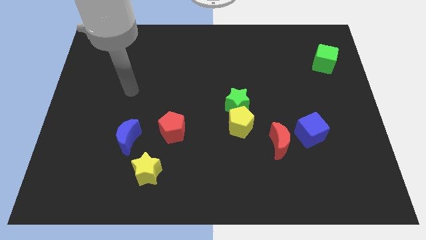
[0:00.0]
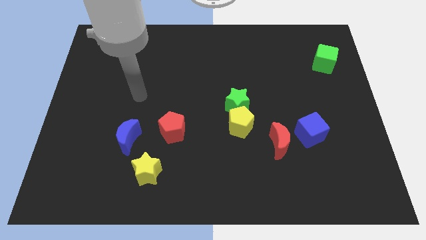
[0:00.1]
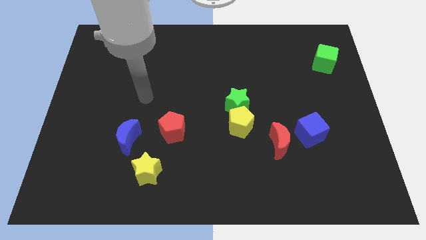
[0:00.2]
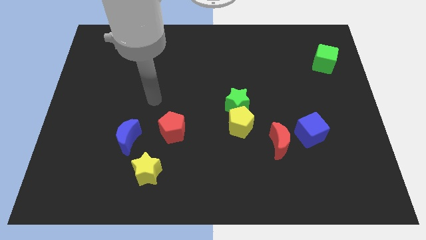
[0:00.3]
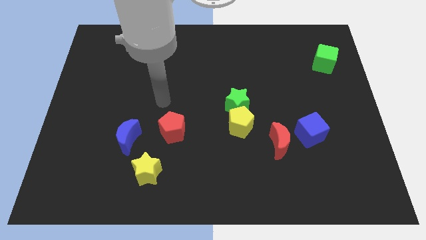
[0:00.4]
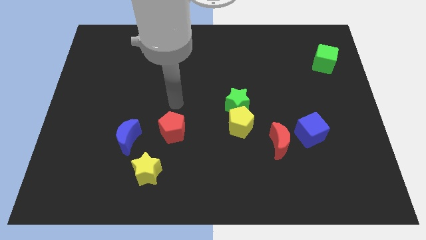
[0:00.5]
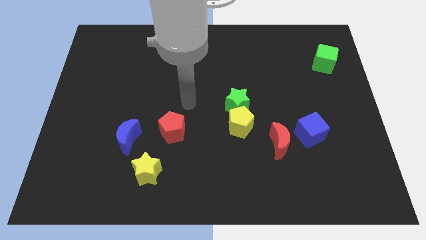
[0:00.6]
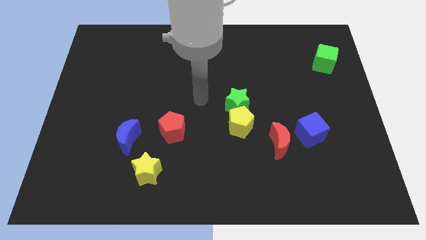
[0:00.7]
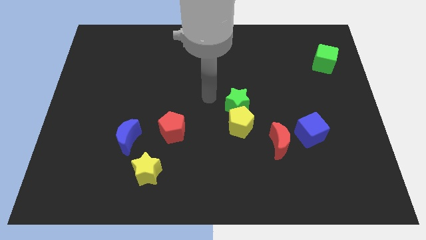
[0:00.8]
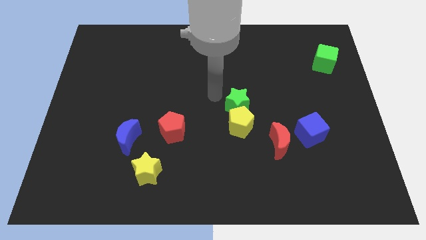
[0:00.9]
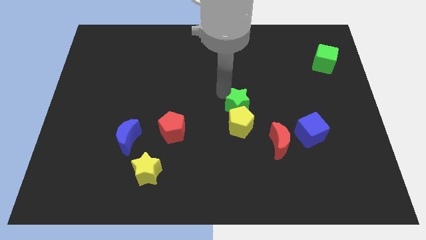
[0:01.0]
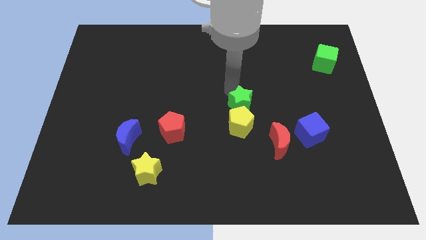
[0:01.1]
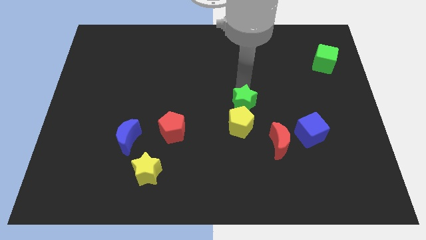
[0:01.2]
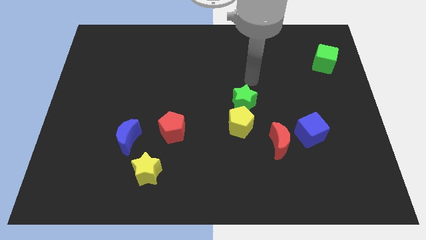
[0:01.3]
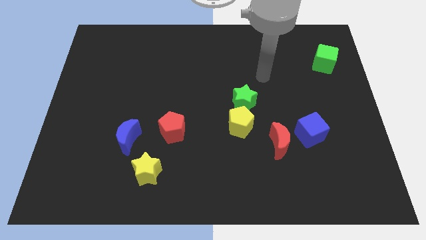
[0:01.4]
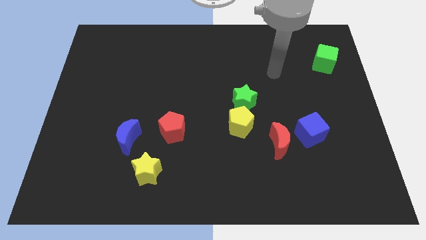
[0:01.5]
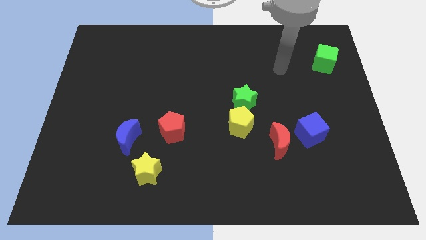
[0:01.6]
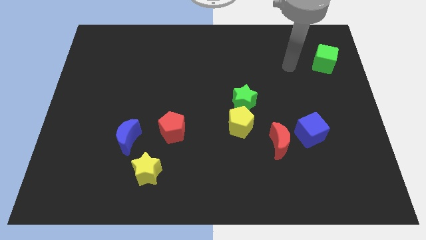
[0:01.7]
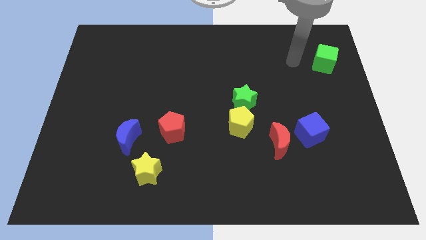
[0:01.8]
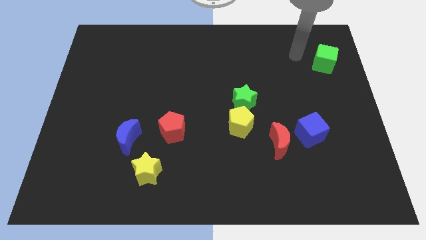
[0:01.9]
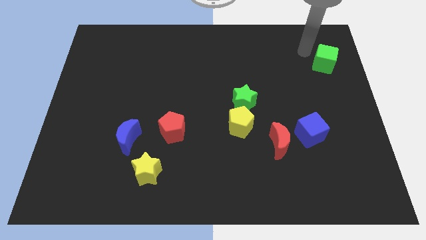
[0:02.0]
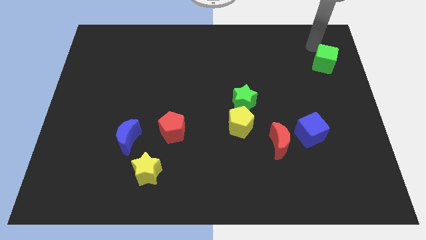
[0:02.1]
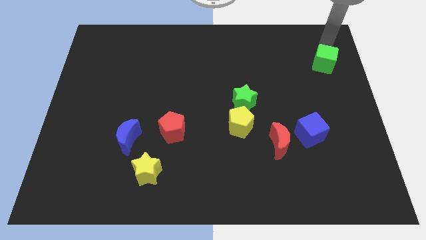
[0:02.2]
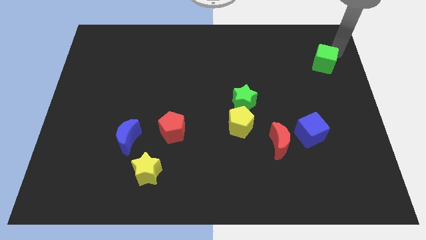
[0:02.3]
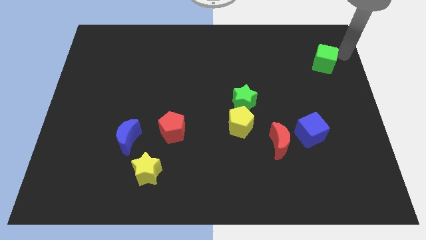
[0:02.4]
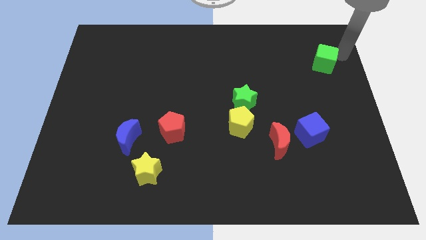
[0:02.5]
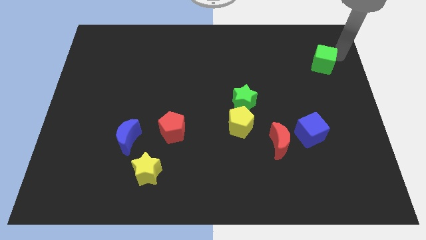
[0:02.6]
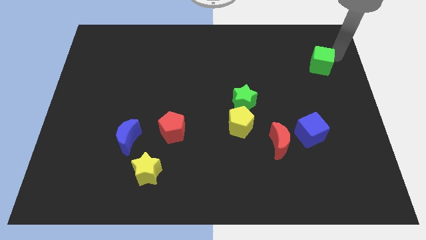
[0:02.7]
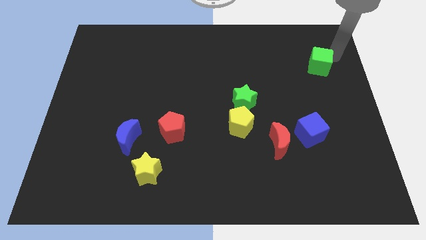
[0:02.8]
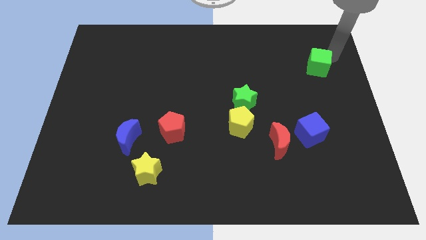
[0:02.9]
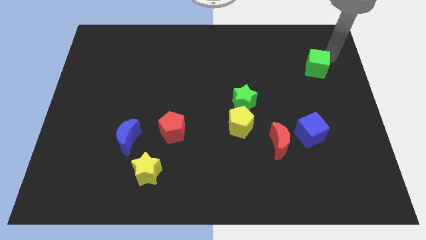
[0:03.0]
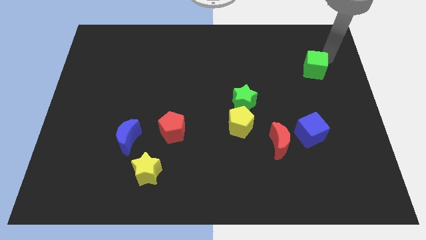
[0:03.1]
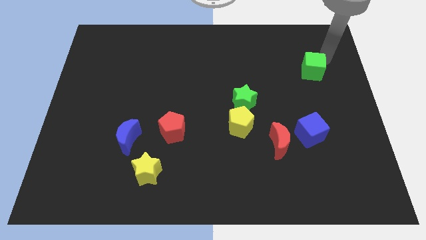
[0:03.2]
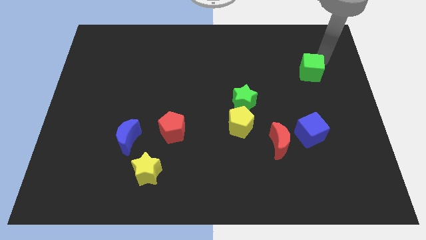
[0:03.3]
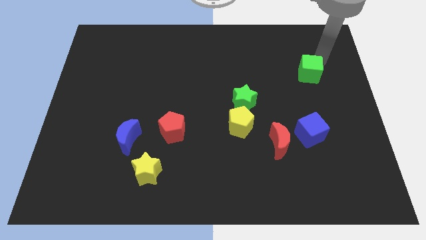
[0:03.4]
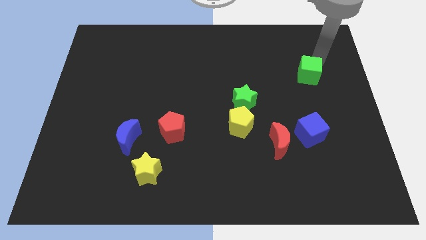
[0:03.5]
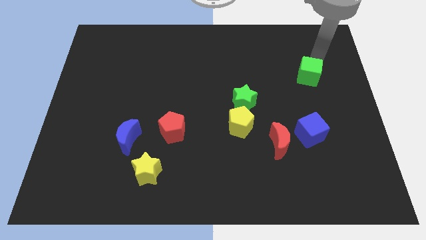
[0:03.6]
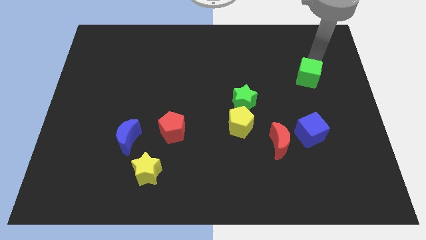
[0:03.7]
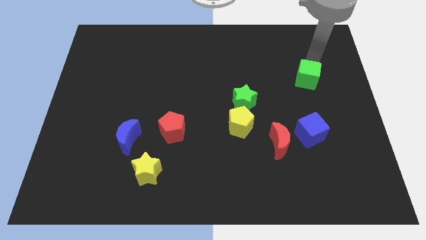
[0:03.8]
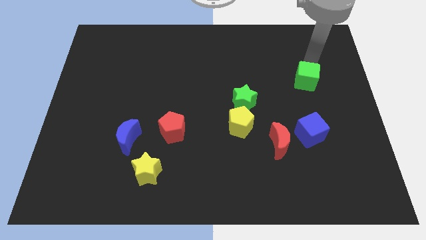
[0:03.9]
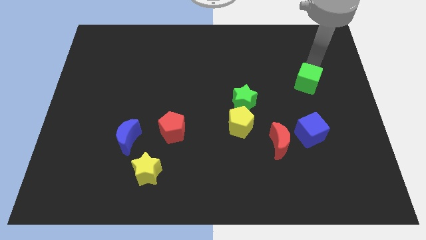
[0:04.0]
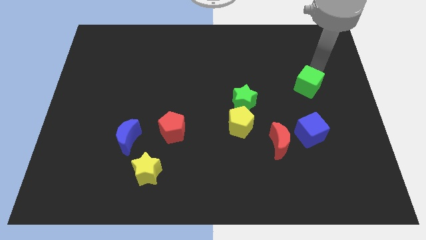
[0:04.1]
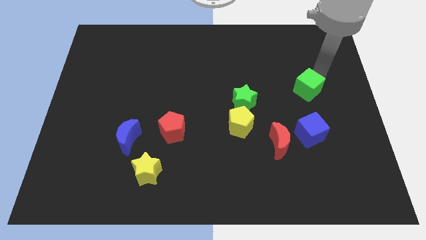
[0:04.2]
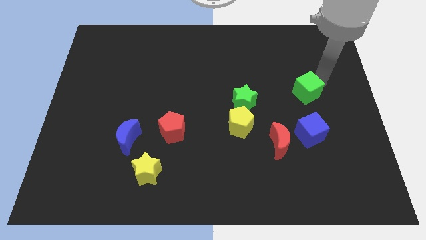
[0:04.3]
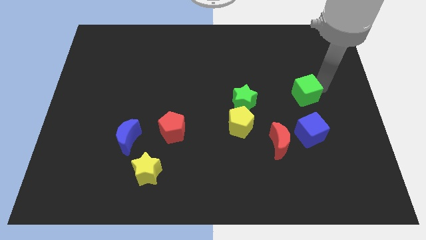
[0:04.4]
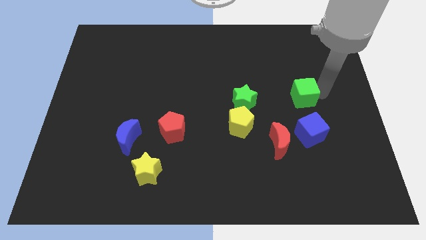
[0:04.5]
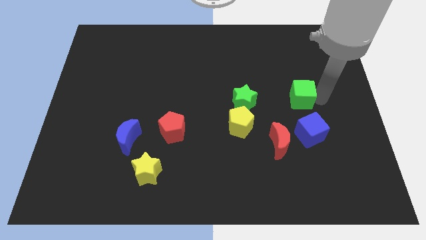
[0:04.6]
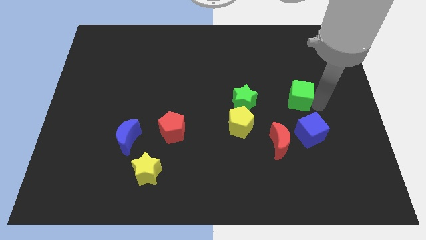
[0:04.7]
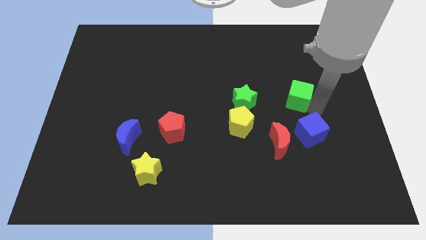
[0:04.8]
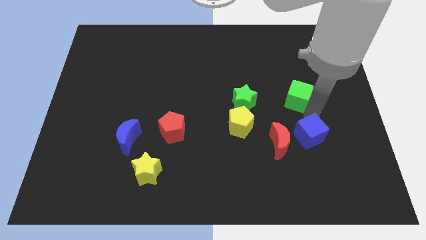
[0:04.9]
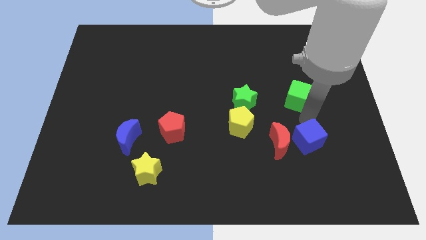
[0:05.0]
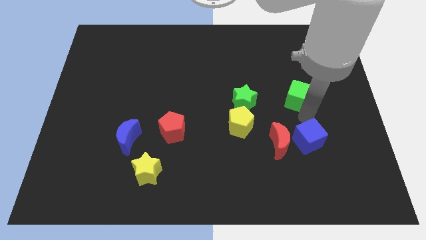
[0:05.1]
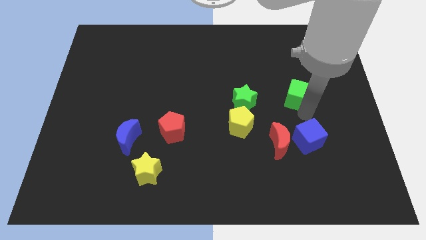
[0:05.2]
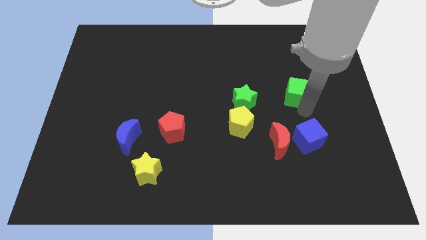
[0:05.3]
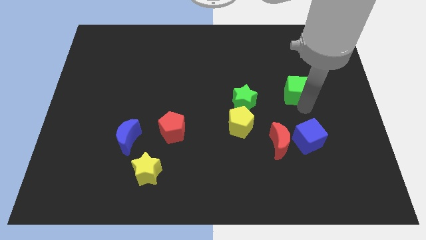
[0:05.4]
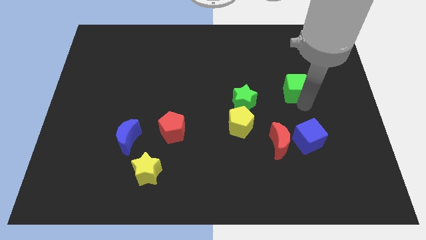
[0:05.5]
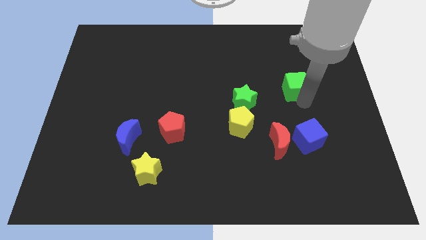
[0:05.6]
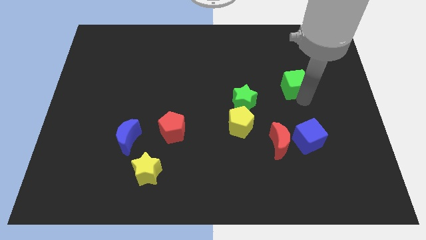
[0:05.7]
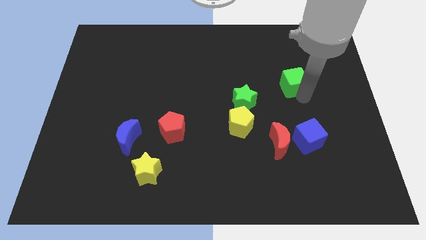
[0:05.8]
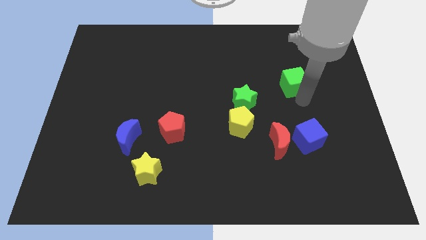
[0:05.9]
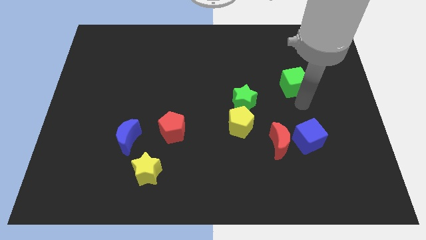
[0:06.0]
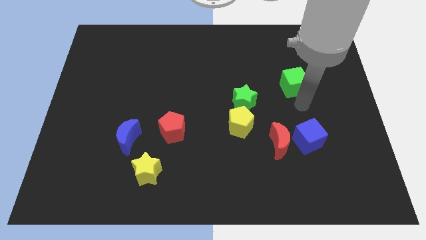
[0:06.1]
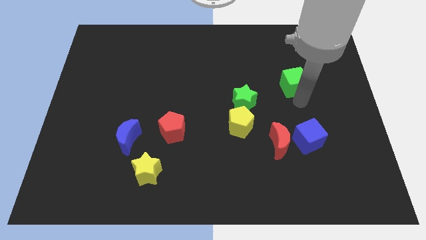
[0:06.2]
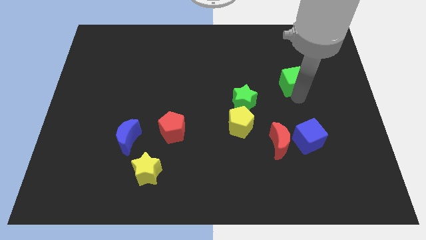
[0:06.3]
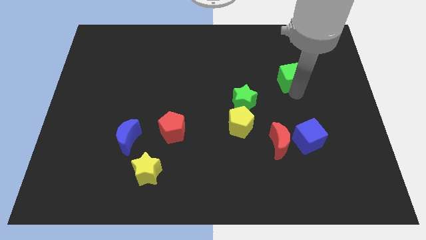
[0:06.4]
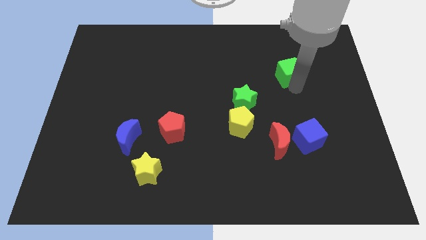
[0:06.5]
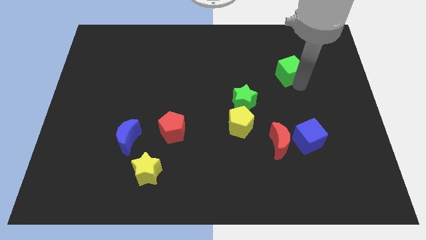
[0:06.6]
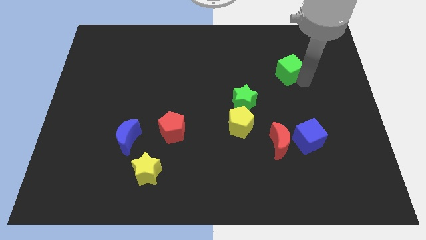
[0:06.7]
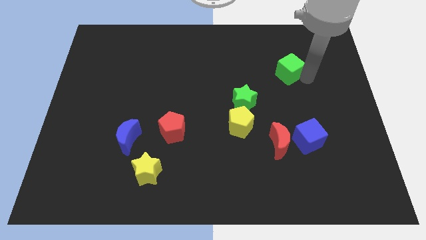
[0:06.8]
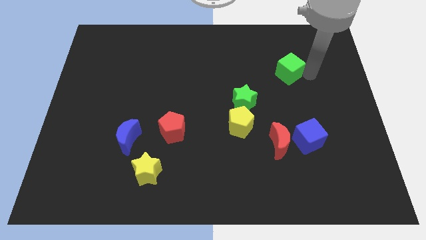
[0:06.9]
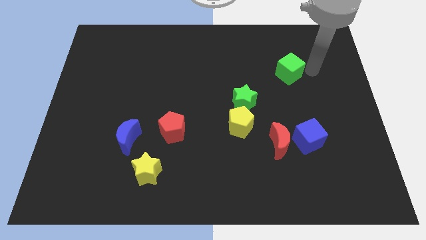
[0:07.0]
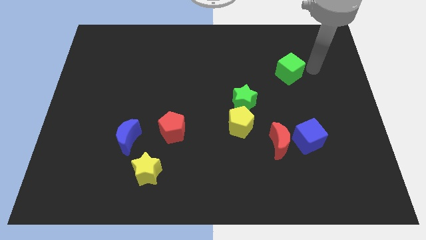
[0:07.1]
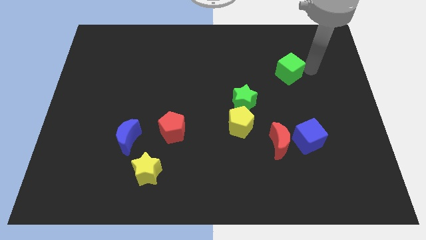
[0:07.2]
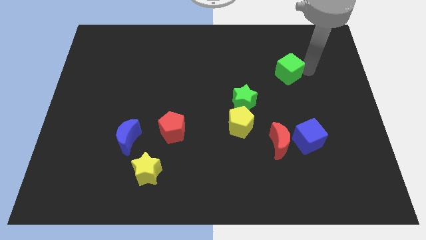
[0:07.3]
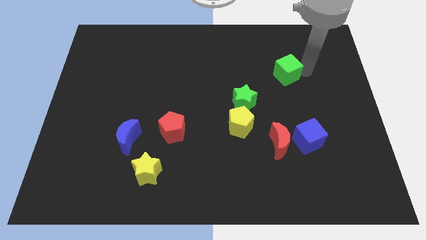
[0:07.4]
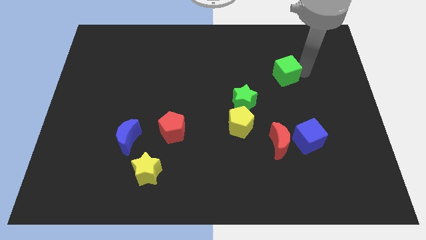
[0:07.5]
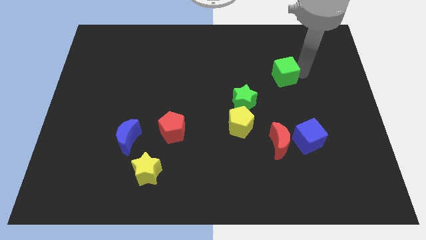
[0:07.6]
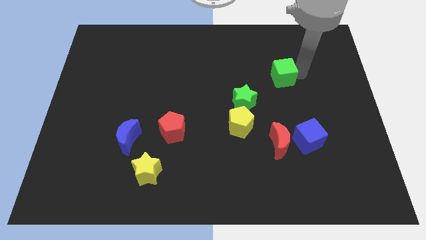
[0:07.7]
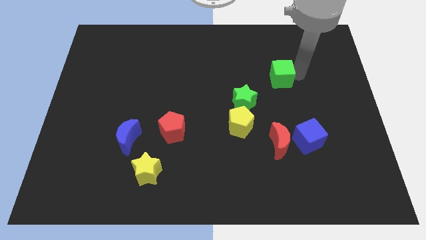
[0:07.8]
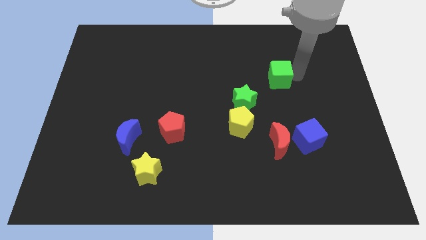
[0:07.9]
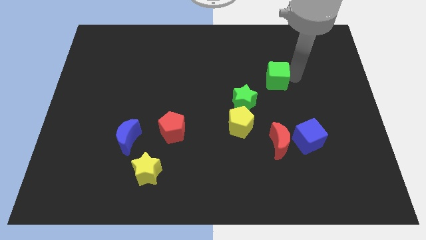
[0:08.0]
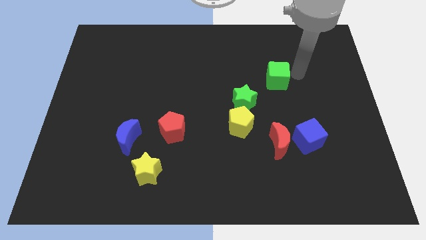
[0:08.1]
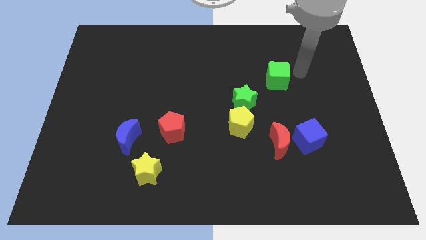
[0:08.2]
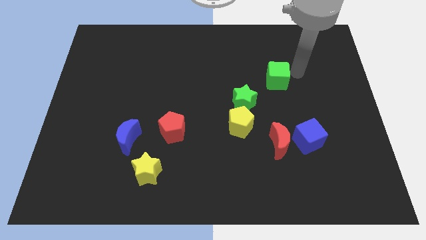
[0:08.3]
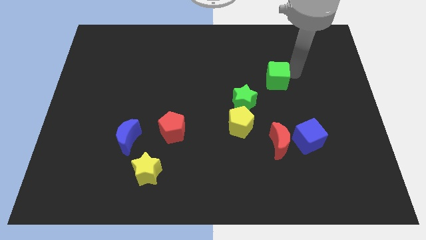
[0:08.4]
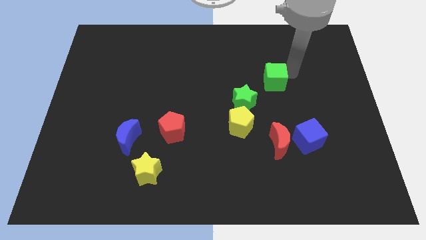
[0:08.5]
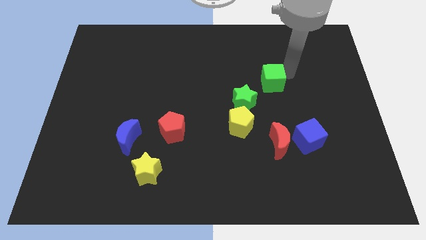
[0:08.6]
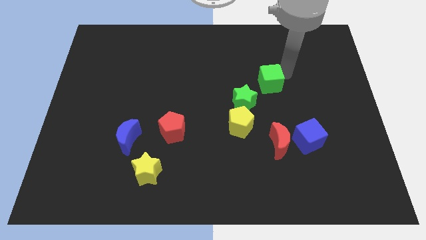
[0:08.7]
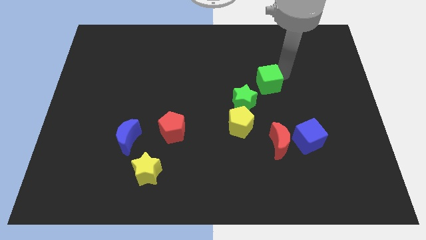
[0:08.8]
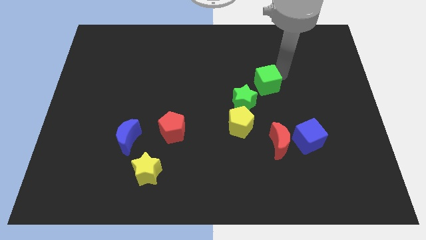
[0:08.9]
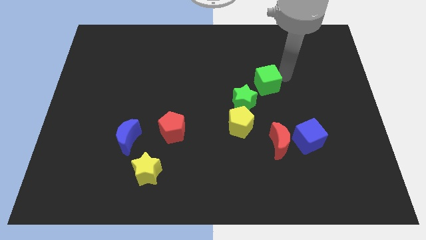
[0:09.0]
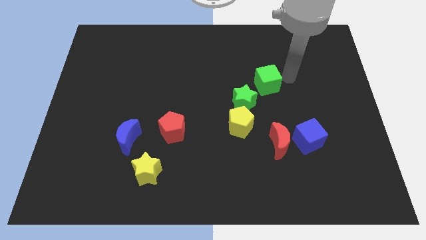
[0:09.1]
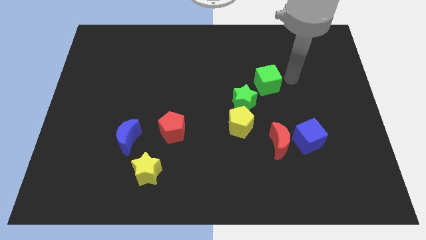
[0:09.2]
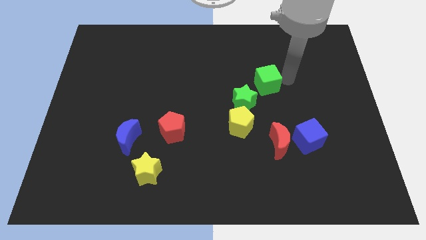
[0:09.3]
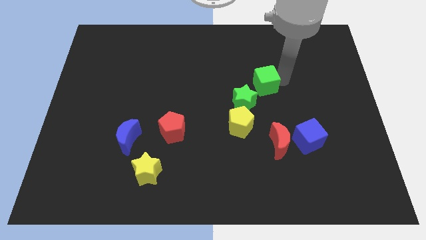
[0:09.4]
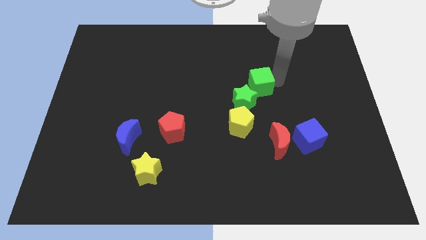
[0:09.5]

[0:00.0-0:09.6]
move the green cube to the center of the board
